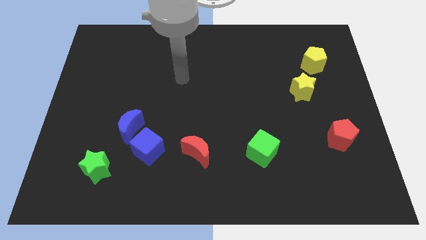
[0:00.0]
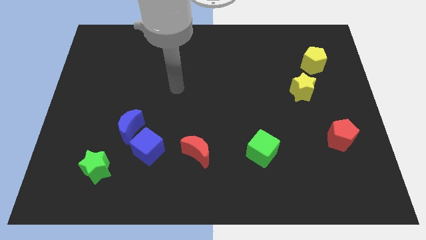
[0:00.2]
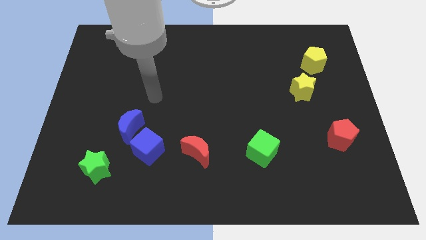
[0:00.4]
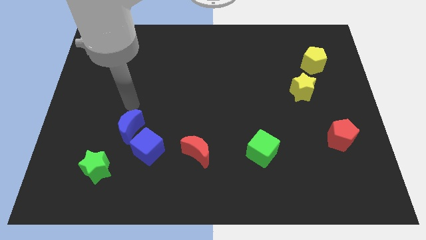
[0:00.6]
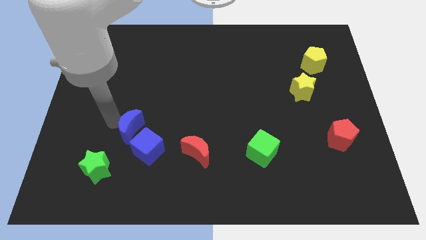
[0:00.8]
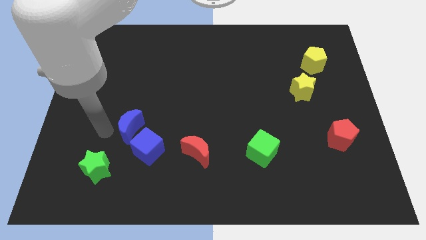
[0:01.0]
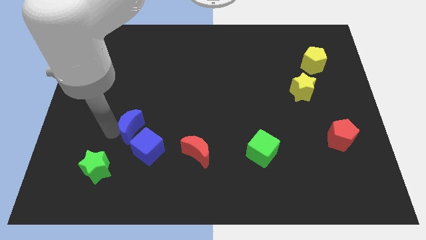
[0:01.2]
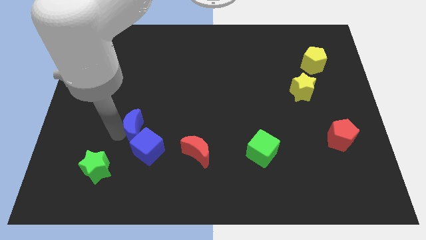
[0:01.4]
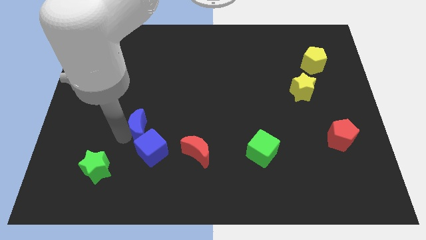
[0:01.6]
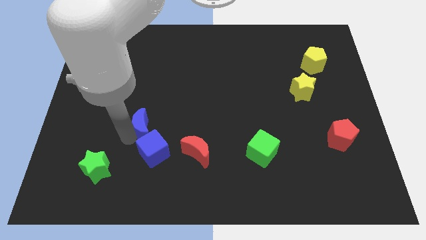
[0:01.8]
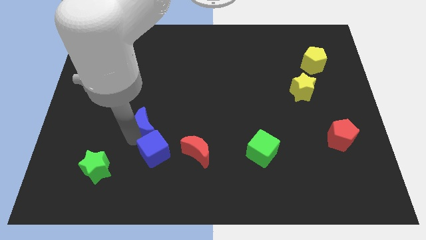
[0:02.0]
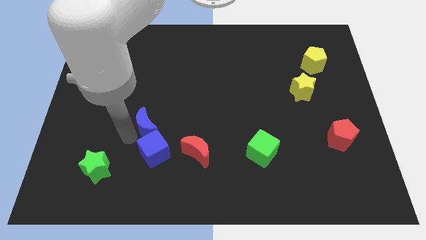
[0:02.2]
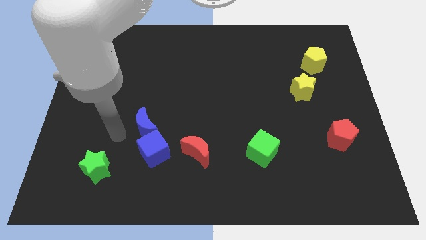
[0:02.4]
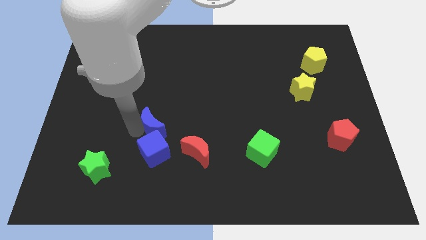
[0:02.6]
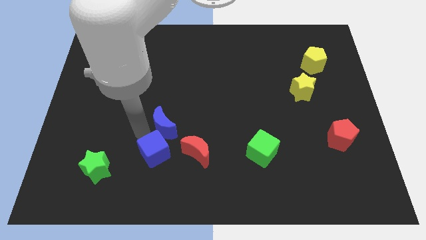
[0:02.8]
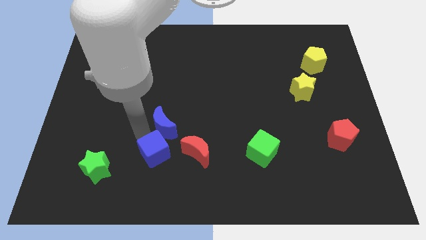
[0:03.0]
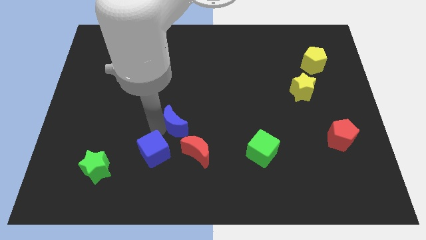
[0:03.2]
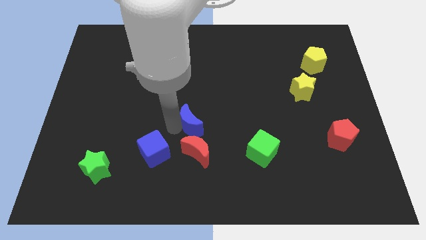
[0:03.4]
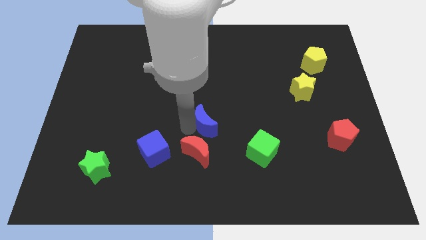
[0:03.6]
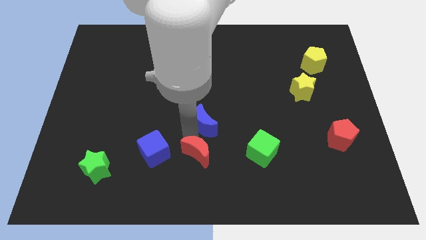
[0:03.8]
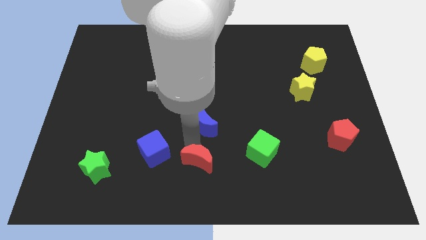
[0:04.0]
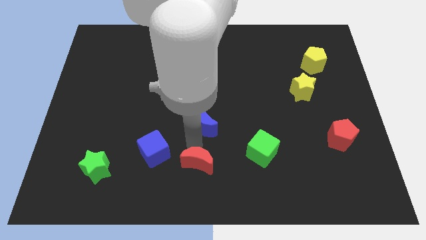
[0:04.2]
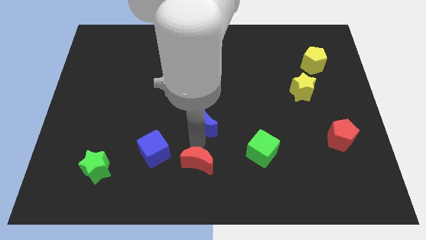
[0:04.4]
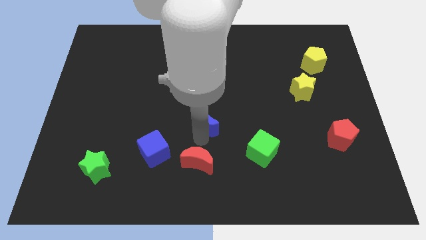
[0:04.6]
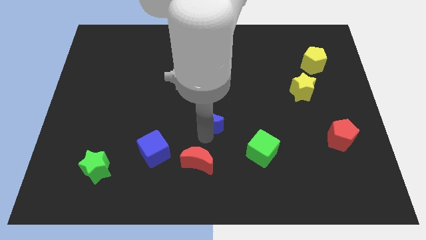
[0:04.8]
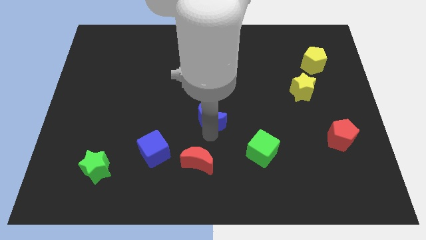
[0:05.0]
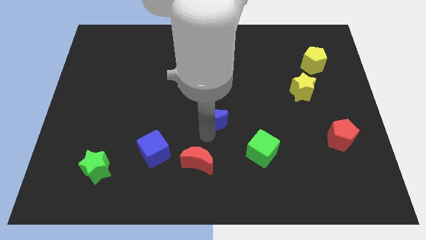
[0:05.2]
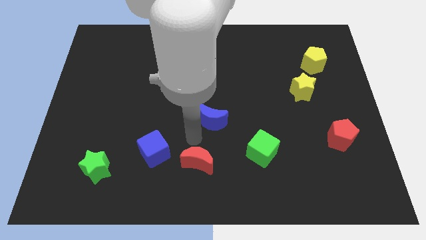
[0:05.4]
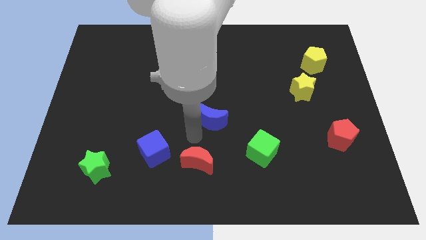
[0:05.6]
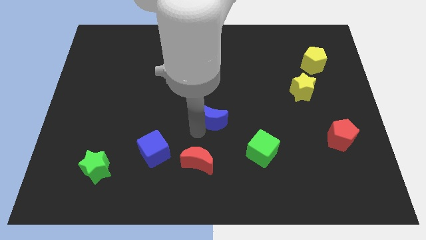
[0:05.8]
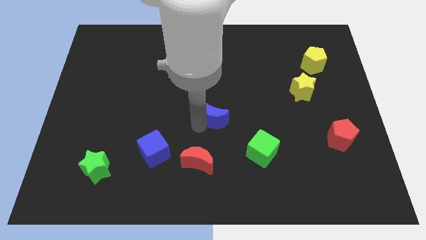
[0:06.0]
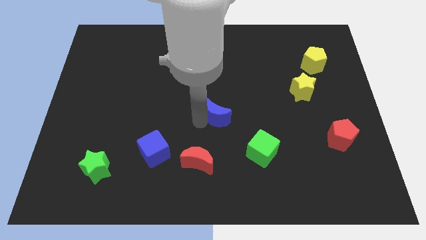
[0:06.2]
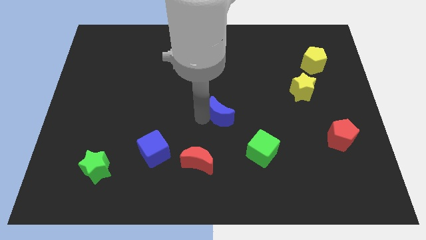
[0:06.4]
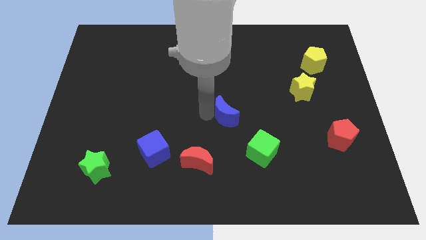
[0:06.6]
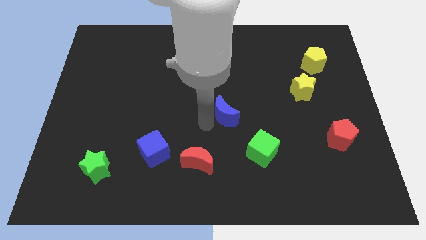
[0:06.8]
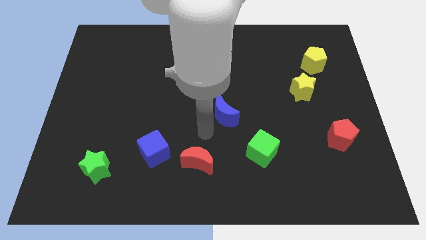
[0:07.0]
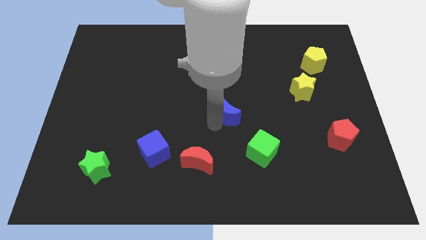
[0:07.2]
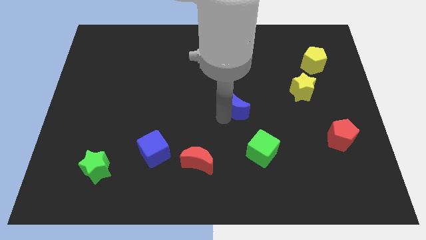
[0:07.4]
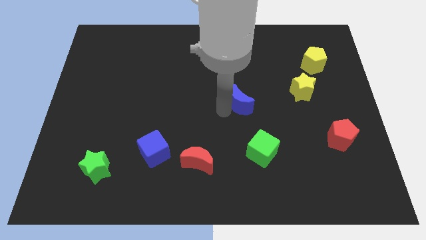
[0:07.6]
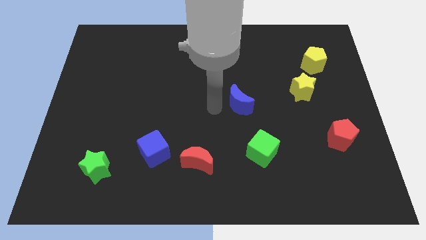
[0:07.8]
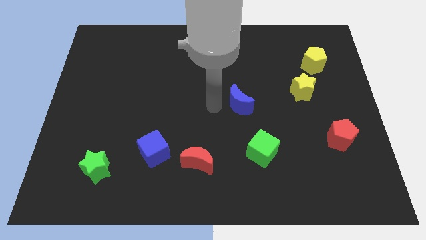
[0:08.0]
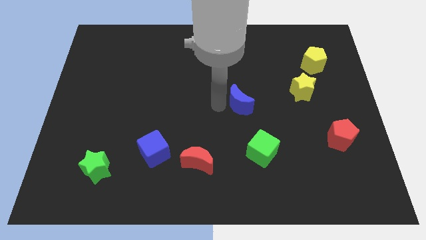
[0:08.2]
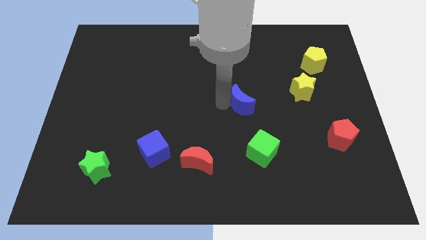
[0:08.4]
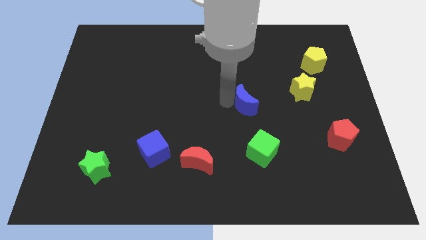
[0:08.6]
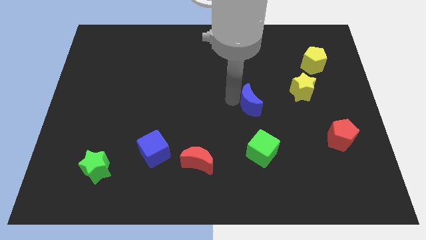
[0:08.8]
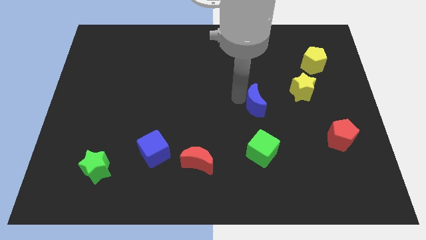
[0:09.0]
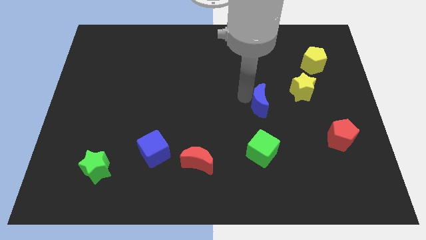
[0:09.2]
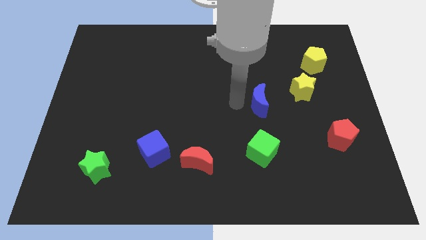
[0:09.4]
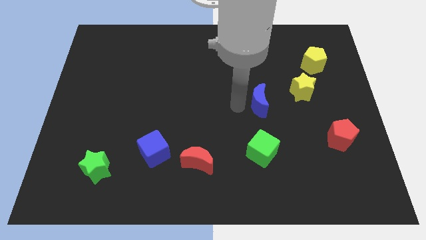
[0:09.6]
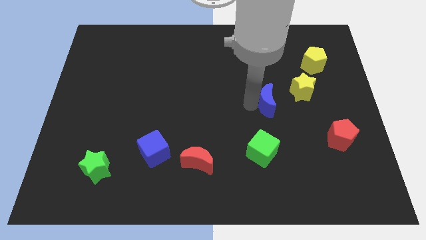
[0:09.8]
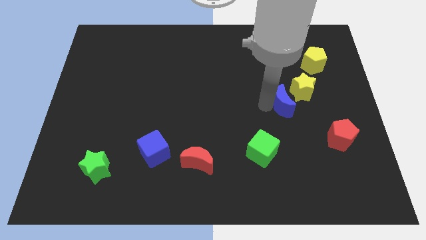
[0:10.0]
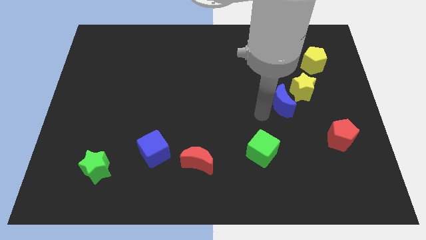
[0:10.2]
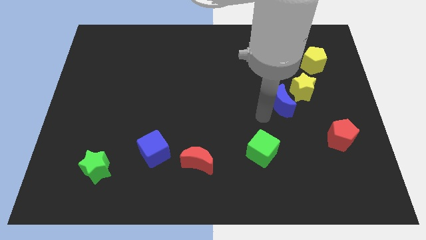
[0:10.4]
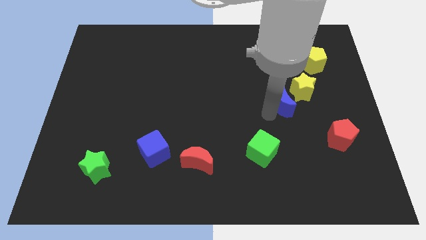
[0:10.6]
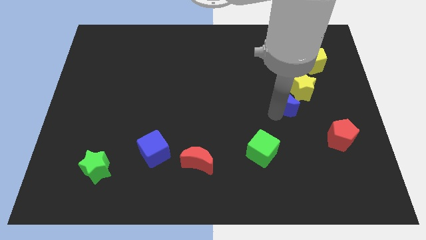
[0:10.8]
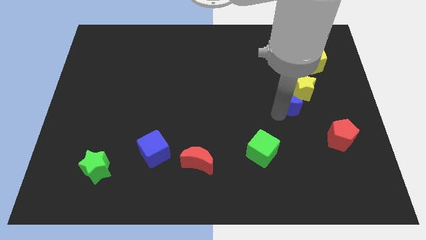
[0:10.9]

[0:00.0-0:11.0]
move the blue moon next to the yellow star

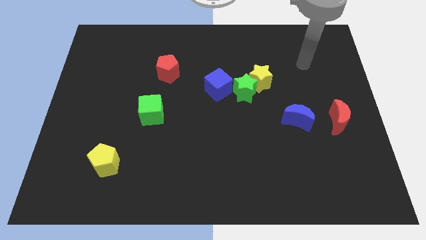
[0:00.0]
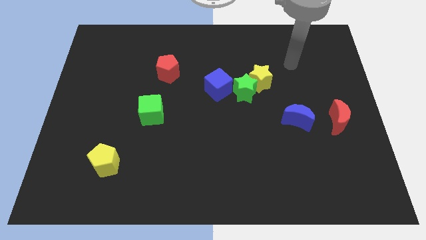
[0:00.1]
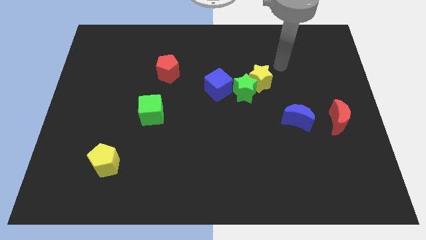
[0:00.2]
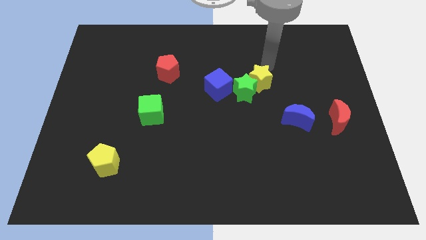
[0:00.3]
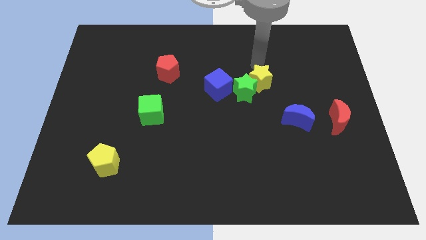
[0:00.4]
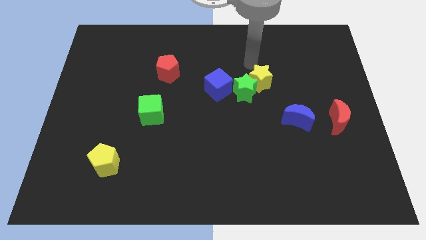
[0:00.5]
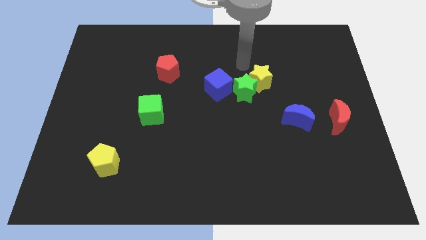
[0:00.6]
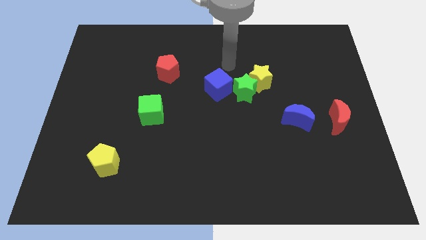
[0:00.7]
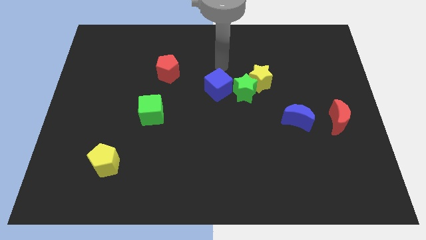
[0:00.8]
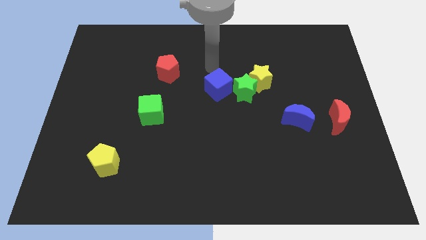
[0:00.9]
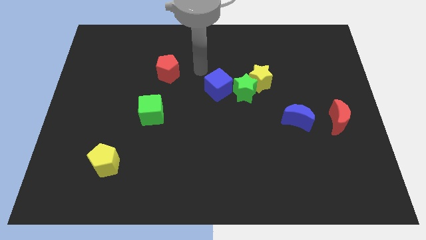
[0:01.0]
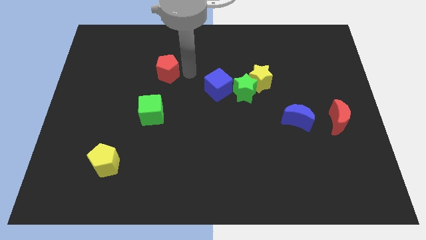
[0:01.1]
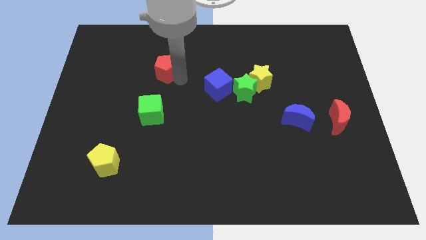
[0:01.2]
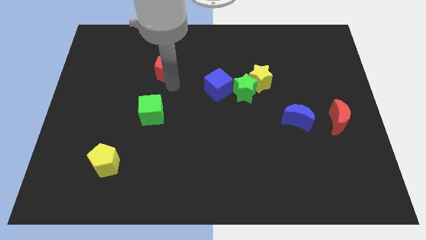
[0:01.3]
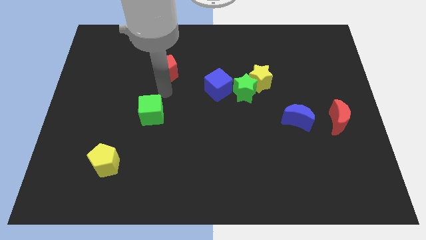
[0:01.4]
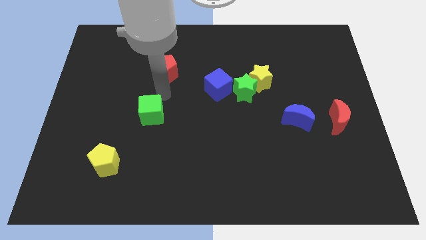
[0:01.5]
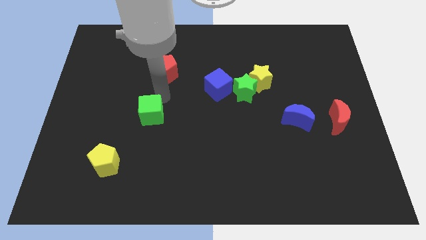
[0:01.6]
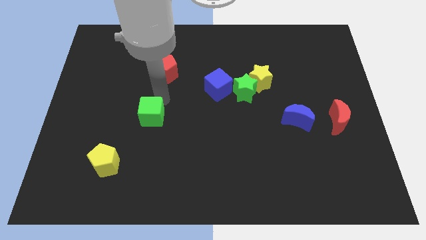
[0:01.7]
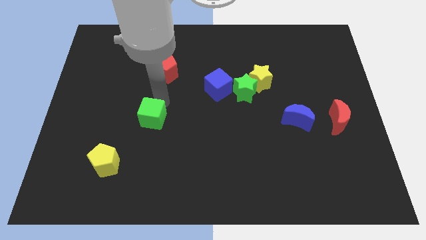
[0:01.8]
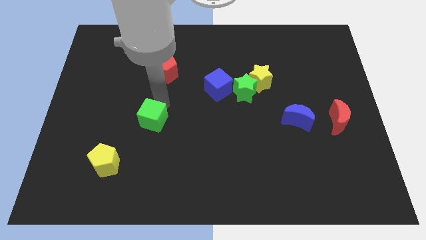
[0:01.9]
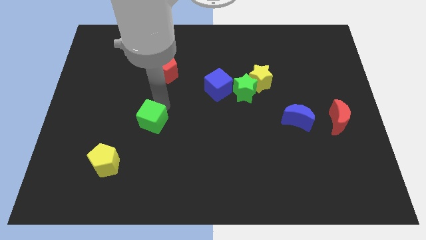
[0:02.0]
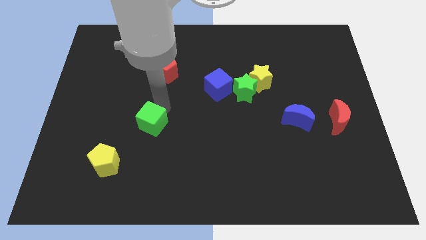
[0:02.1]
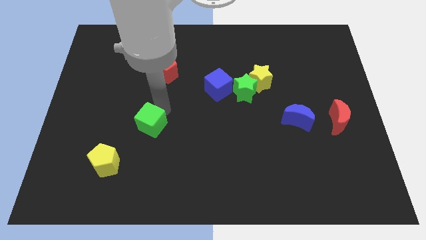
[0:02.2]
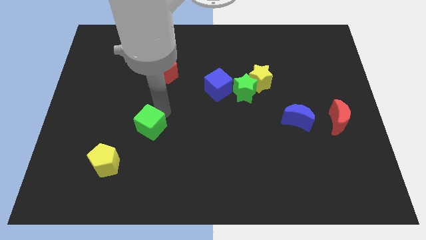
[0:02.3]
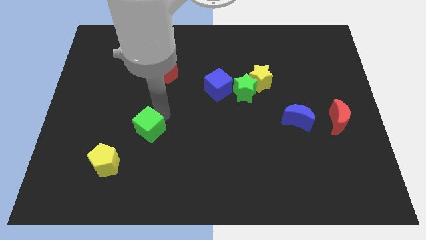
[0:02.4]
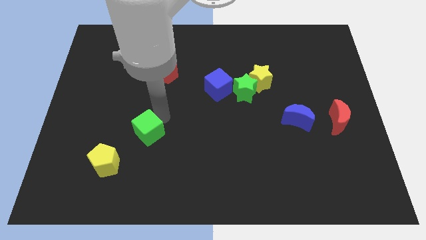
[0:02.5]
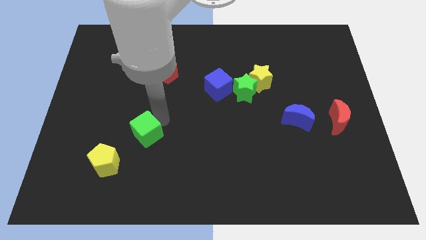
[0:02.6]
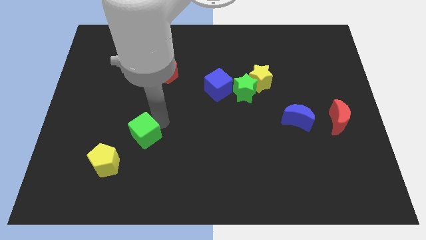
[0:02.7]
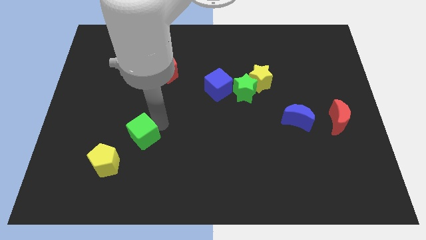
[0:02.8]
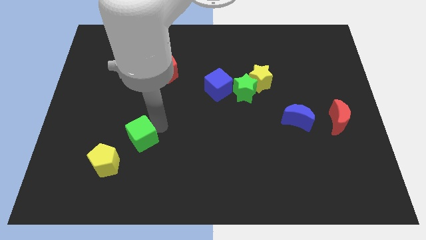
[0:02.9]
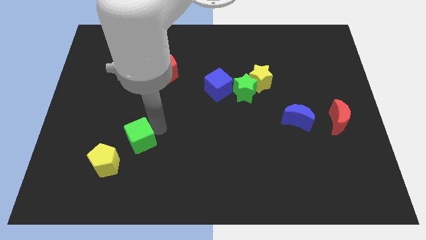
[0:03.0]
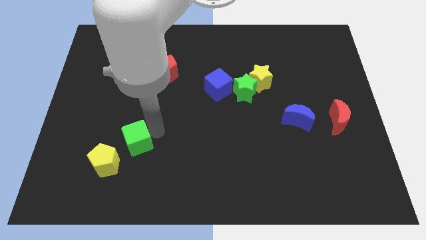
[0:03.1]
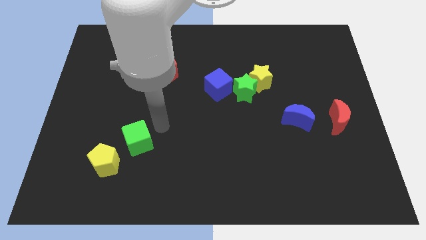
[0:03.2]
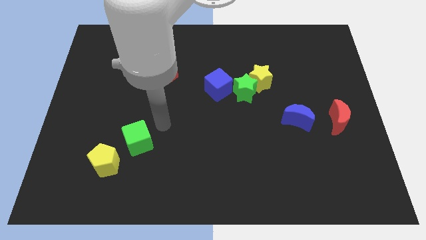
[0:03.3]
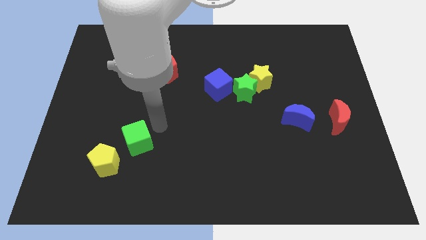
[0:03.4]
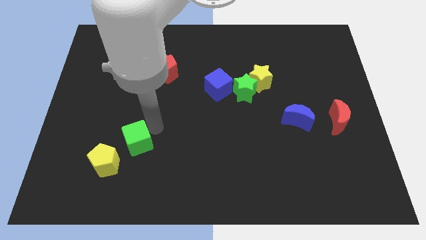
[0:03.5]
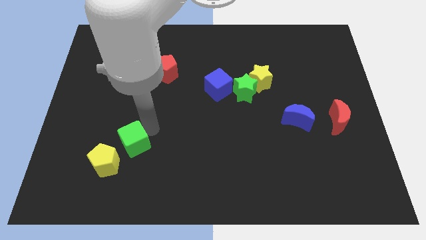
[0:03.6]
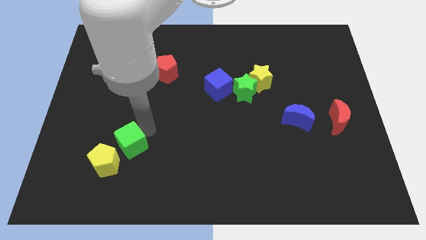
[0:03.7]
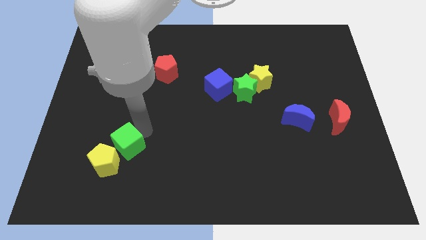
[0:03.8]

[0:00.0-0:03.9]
put the green cube close to the yellow pentagon
